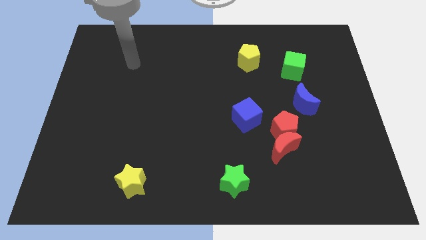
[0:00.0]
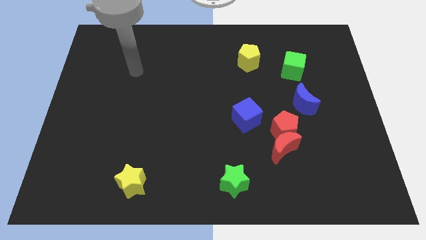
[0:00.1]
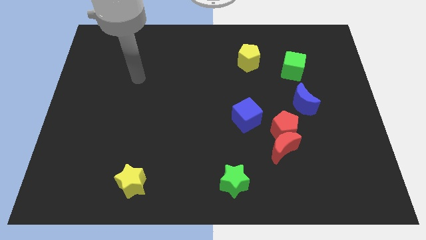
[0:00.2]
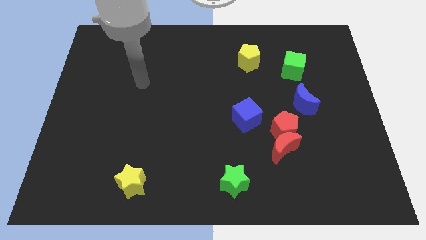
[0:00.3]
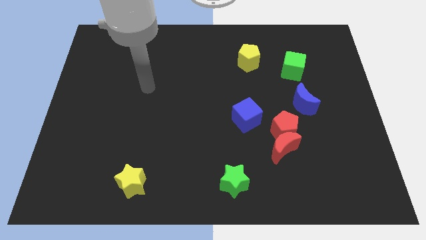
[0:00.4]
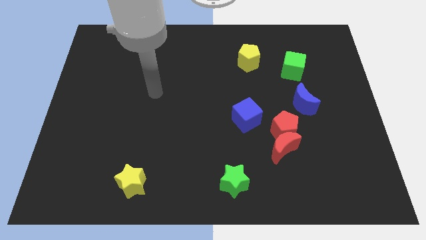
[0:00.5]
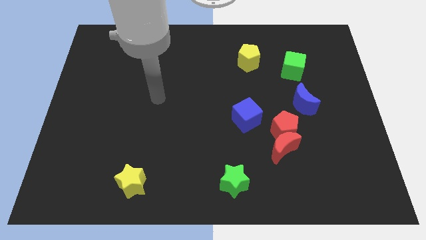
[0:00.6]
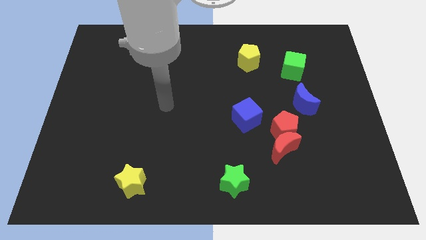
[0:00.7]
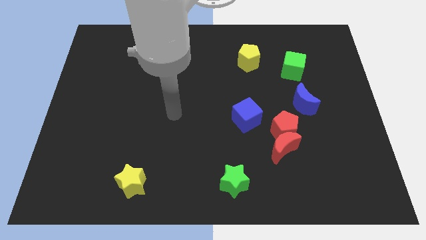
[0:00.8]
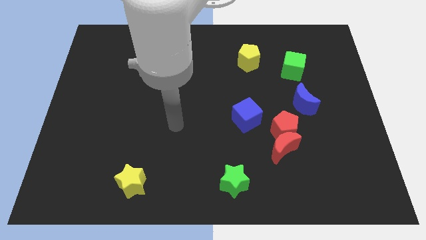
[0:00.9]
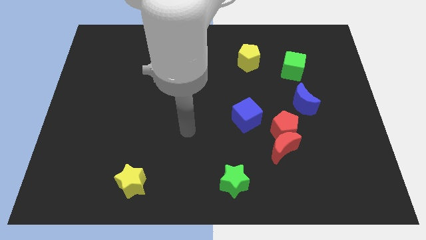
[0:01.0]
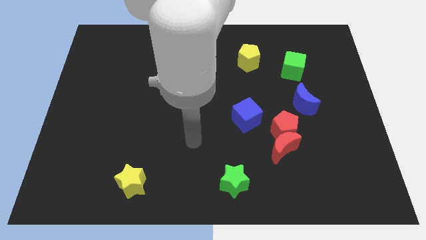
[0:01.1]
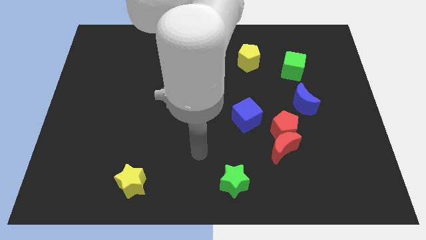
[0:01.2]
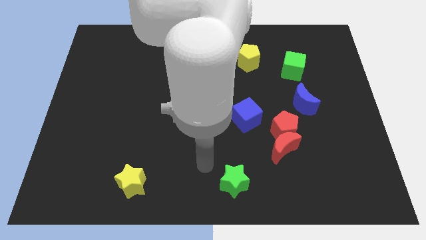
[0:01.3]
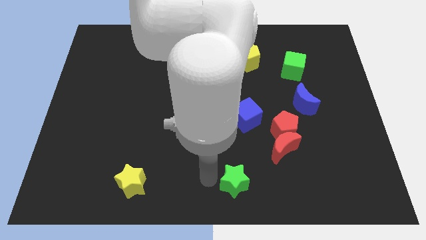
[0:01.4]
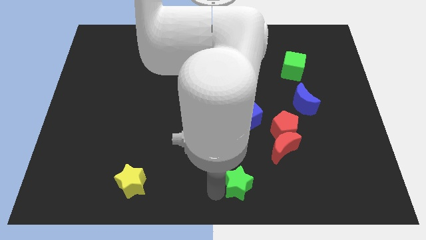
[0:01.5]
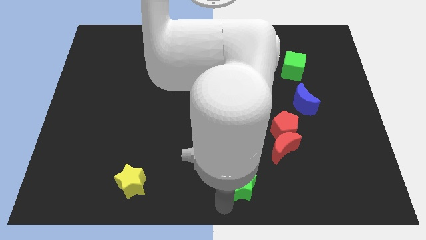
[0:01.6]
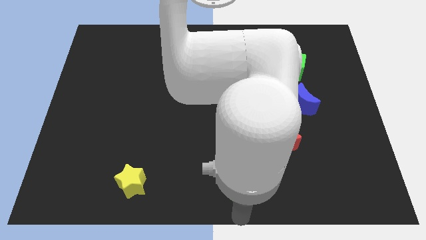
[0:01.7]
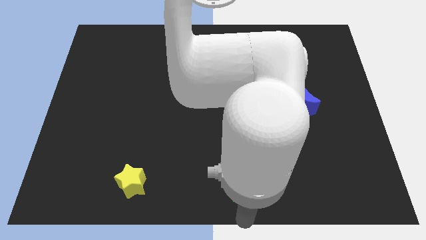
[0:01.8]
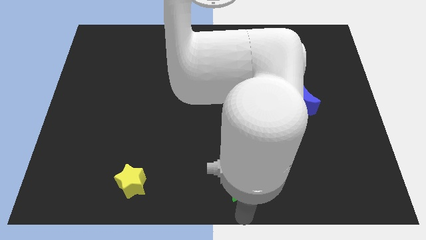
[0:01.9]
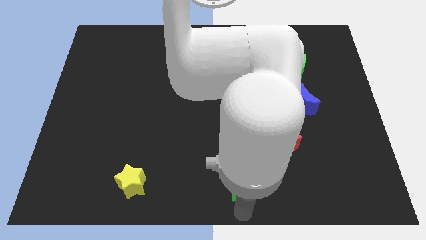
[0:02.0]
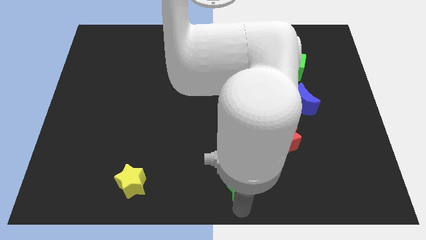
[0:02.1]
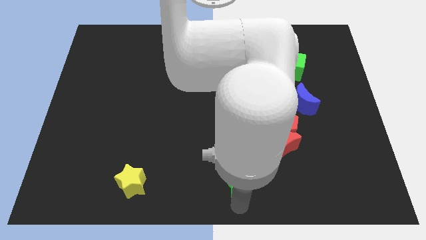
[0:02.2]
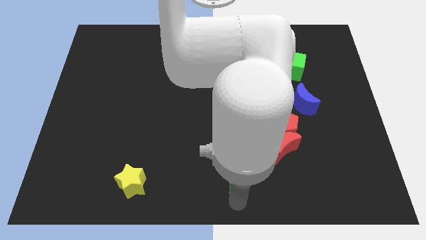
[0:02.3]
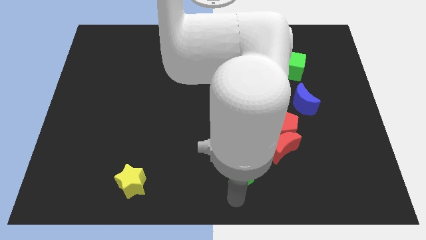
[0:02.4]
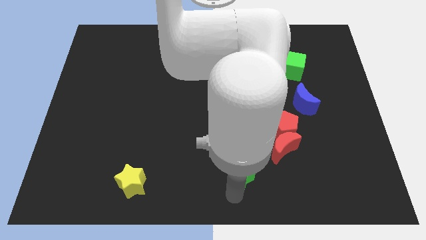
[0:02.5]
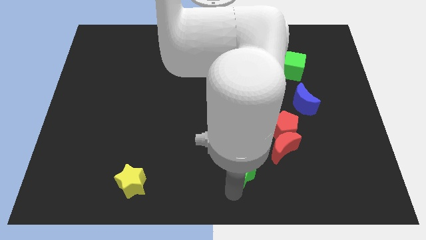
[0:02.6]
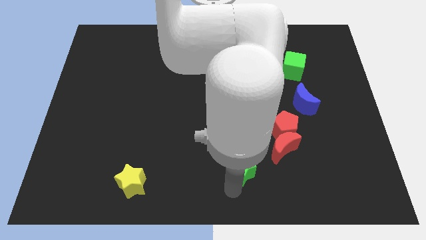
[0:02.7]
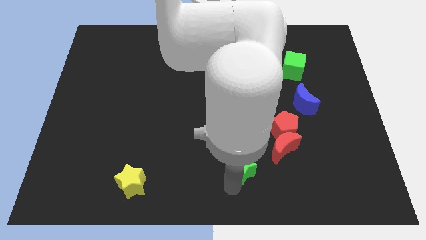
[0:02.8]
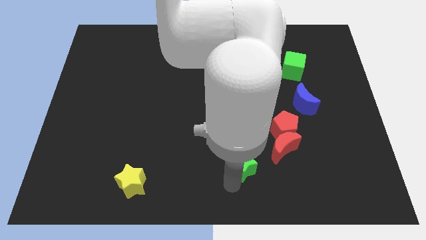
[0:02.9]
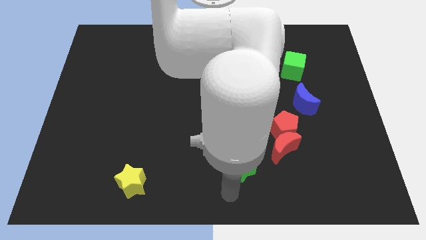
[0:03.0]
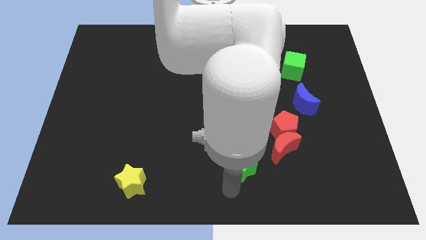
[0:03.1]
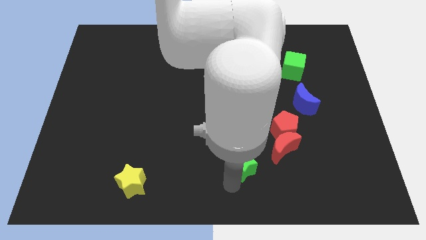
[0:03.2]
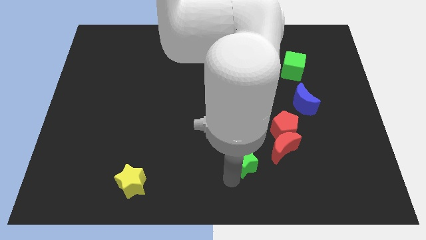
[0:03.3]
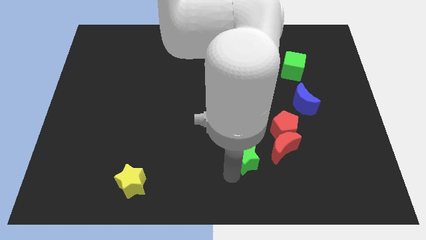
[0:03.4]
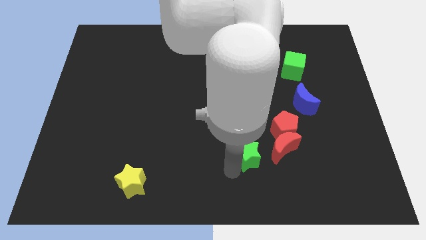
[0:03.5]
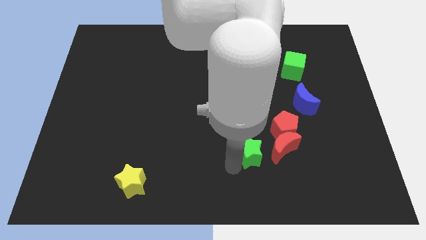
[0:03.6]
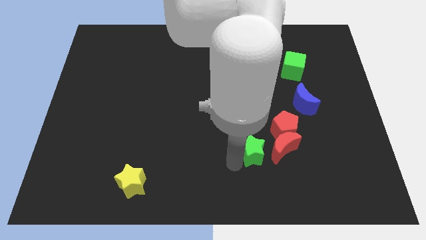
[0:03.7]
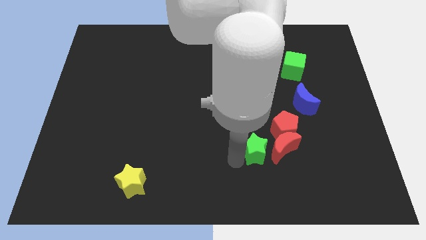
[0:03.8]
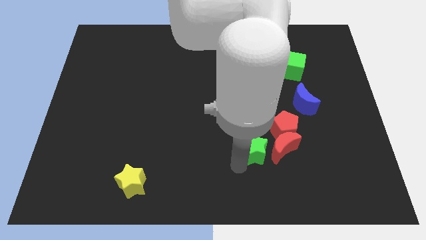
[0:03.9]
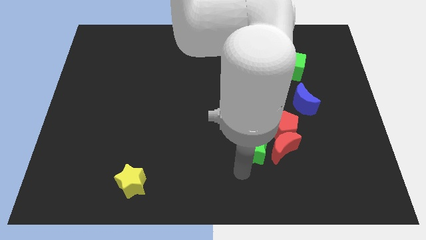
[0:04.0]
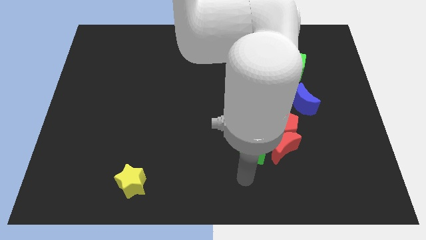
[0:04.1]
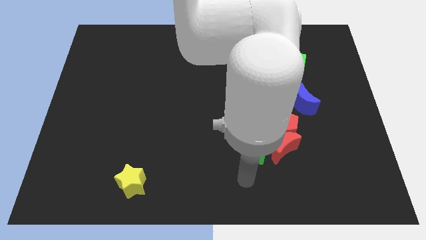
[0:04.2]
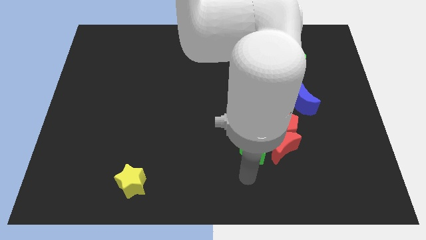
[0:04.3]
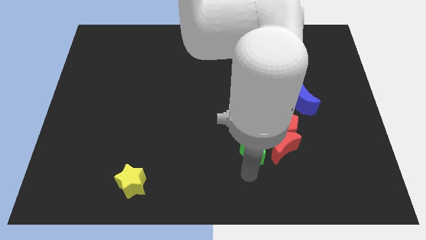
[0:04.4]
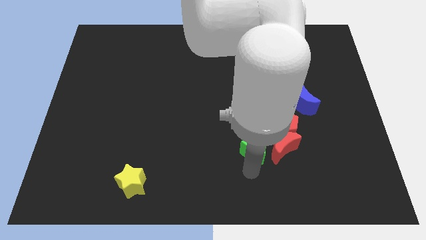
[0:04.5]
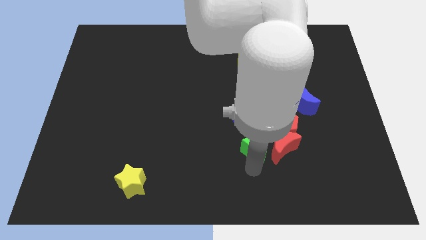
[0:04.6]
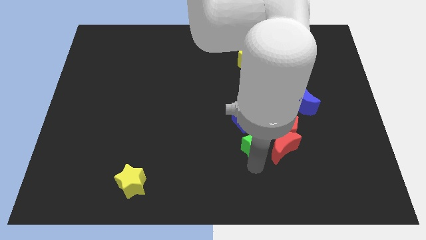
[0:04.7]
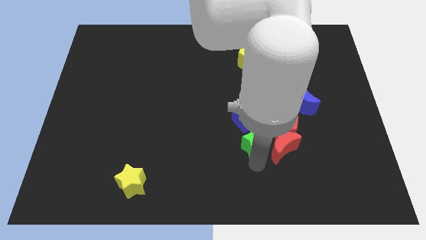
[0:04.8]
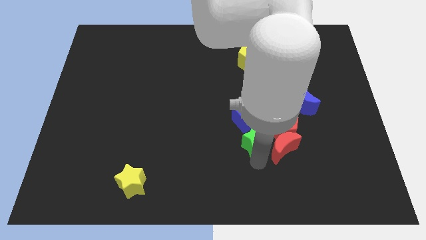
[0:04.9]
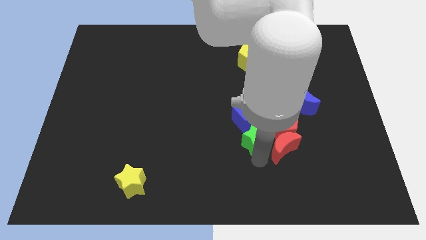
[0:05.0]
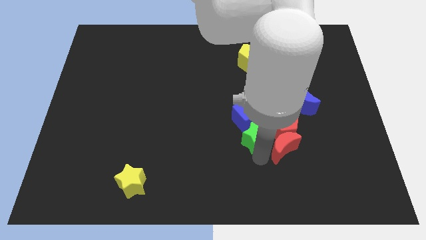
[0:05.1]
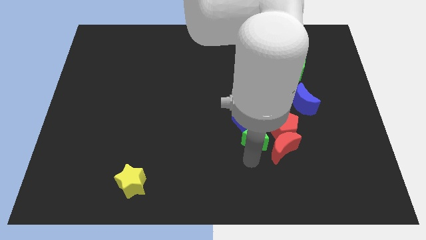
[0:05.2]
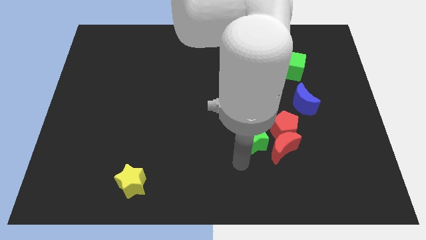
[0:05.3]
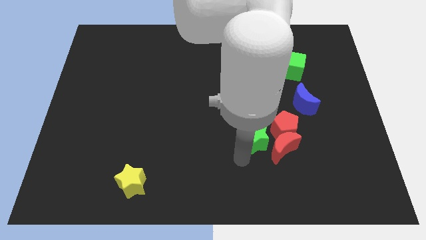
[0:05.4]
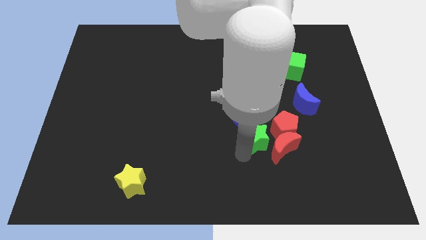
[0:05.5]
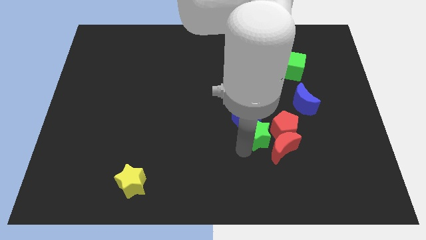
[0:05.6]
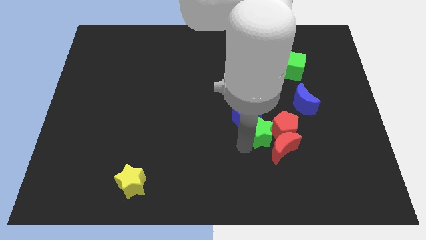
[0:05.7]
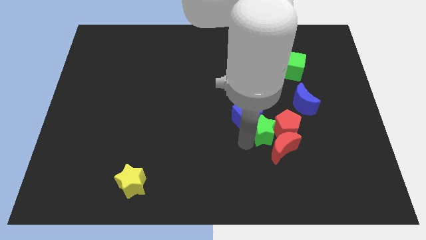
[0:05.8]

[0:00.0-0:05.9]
move the green star to the top of the red moon

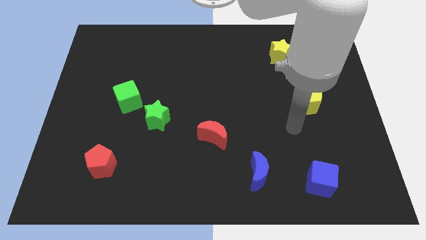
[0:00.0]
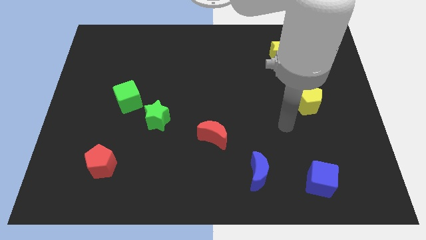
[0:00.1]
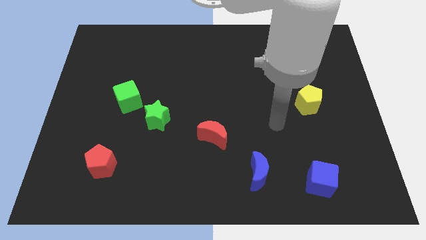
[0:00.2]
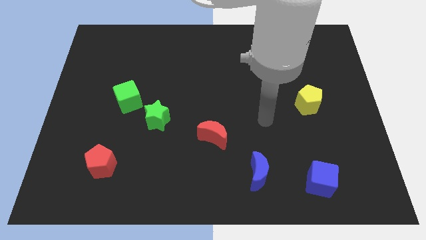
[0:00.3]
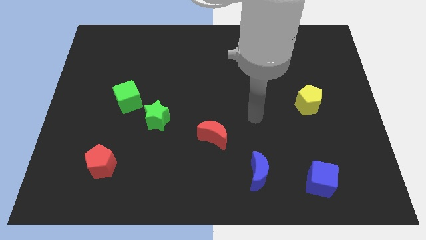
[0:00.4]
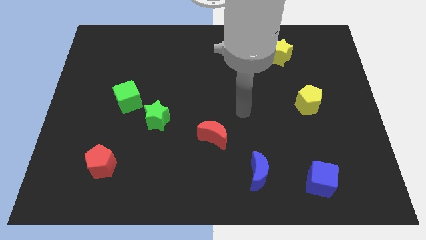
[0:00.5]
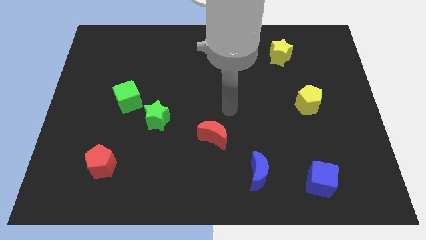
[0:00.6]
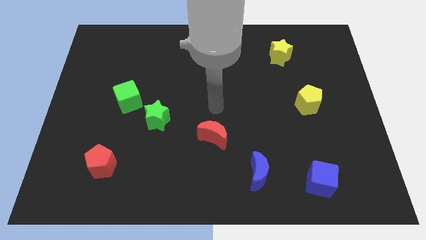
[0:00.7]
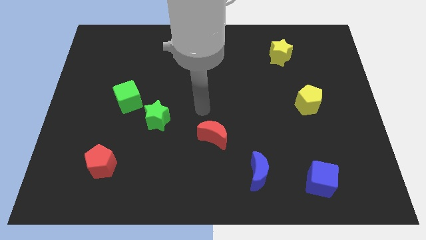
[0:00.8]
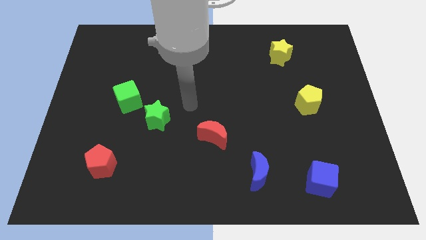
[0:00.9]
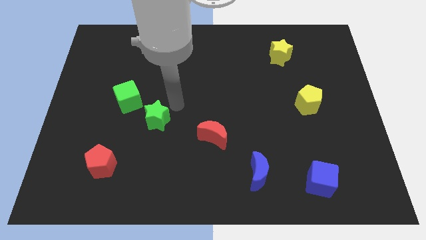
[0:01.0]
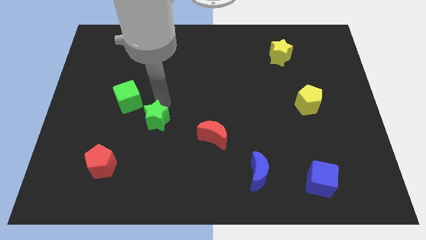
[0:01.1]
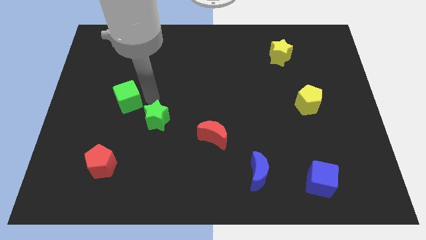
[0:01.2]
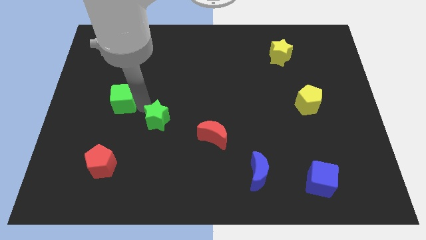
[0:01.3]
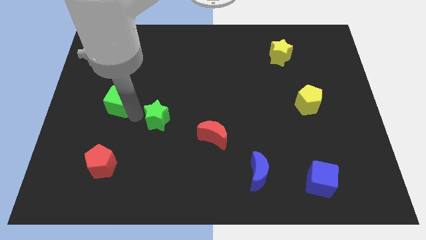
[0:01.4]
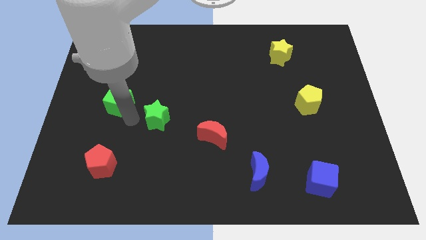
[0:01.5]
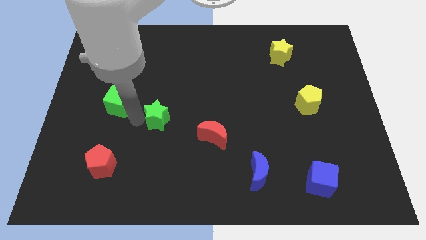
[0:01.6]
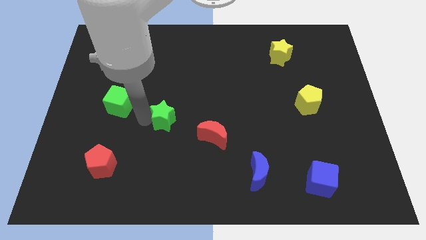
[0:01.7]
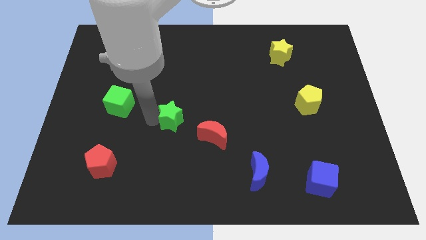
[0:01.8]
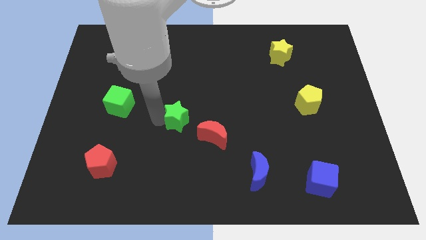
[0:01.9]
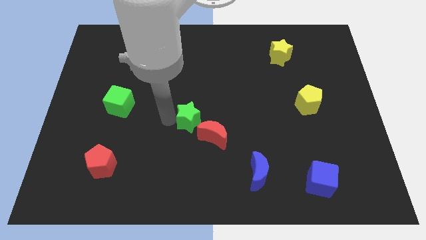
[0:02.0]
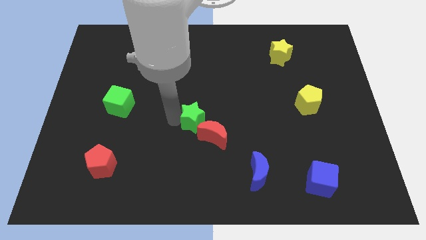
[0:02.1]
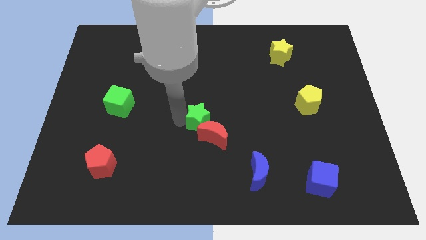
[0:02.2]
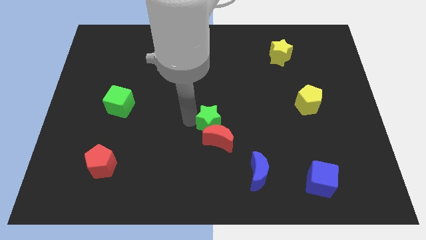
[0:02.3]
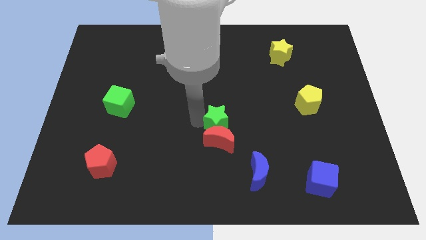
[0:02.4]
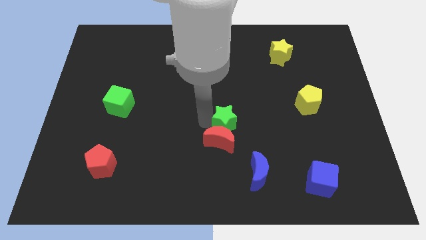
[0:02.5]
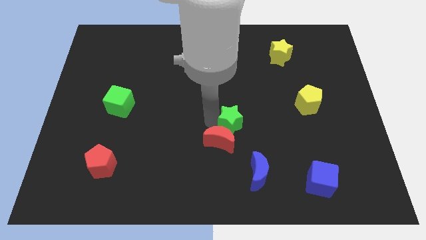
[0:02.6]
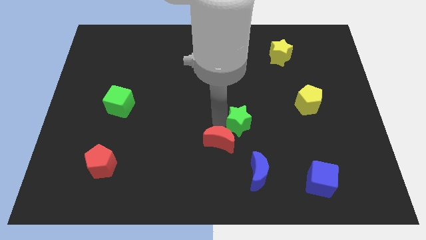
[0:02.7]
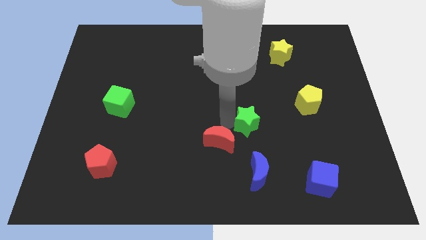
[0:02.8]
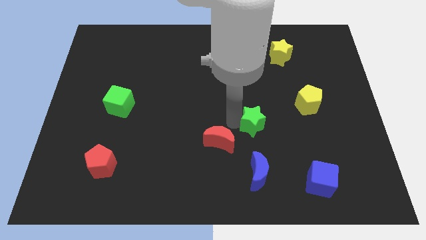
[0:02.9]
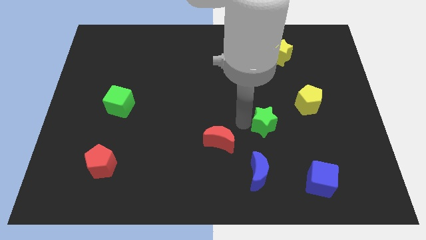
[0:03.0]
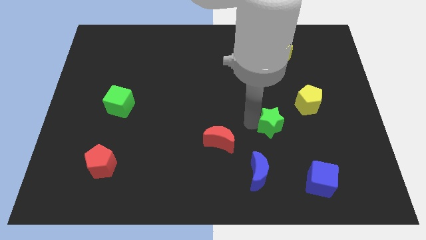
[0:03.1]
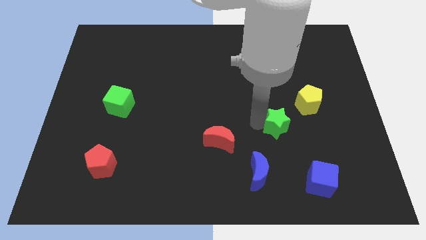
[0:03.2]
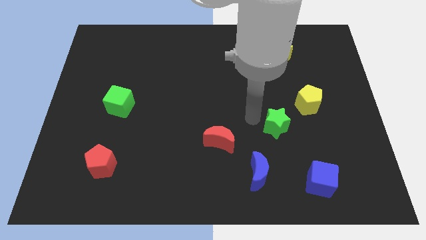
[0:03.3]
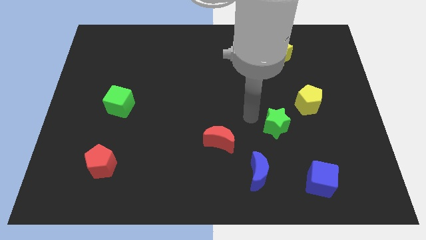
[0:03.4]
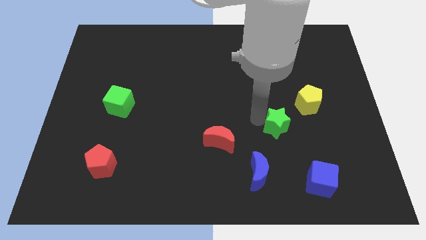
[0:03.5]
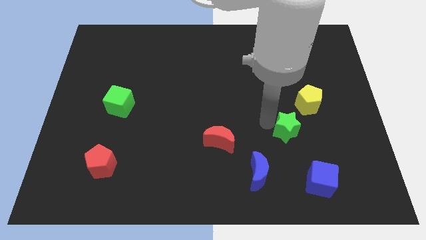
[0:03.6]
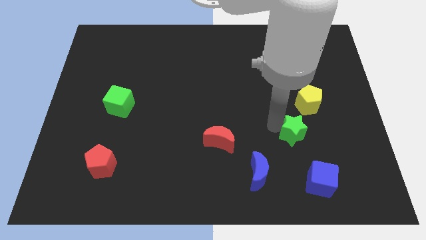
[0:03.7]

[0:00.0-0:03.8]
put the green star to the bottom of the yellow pentagon
